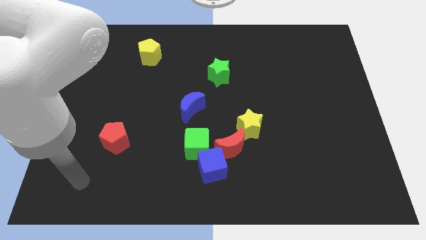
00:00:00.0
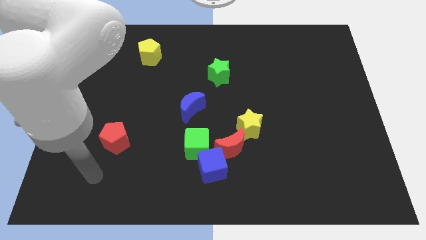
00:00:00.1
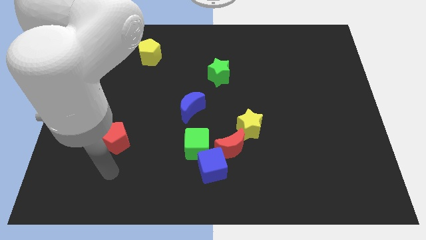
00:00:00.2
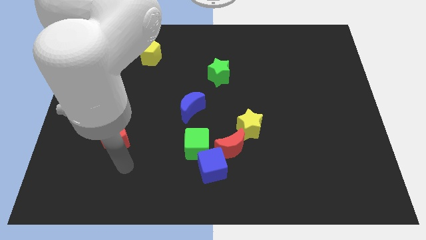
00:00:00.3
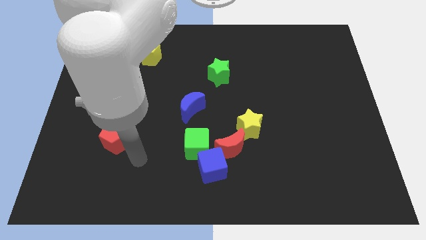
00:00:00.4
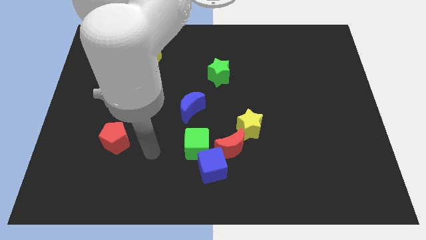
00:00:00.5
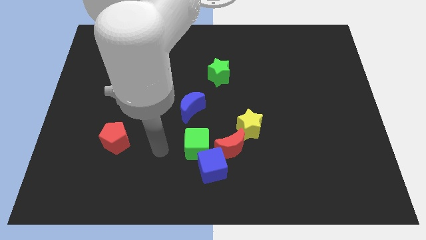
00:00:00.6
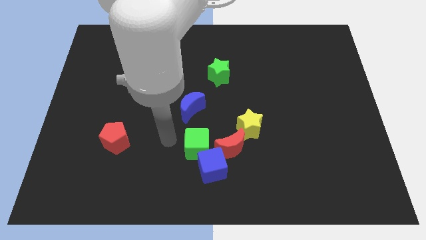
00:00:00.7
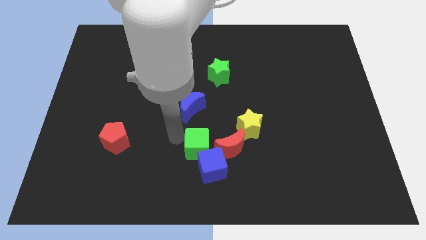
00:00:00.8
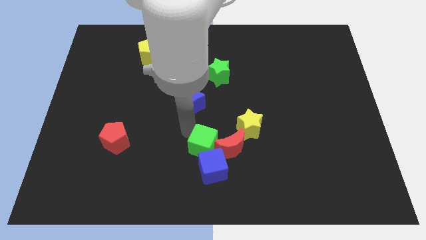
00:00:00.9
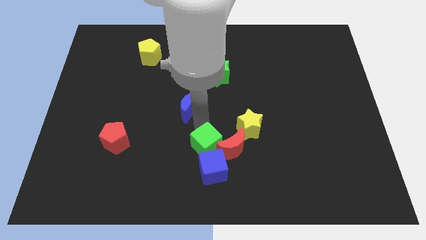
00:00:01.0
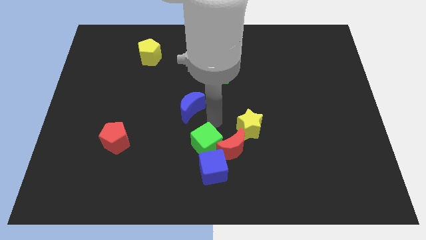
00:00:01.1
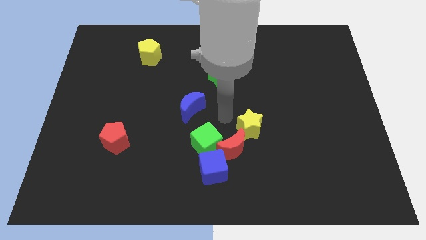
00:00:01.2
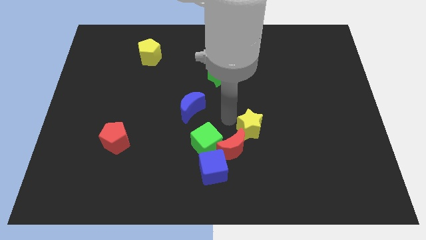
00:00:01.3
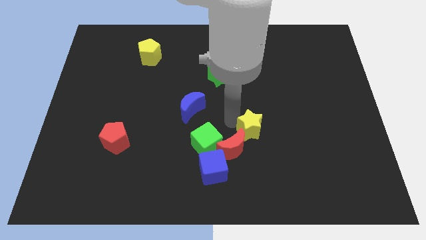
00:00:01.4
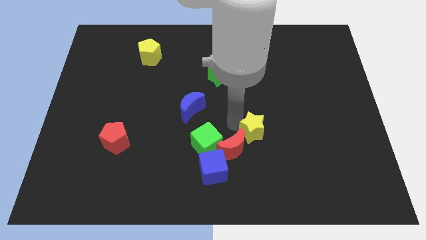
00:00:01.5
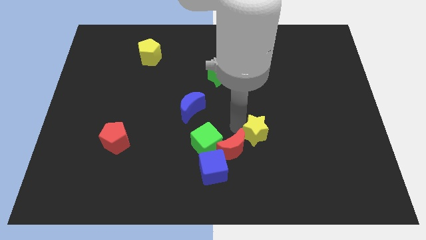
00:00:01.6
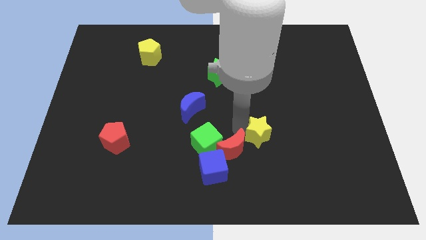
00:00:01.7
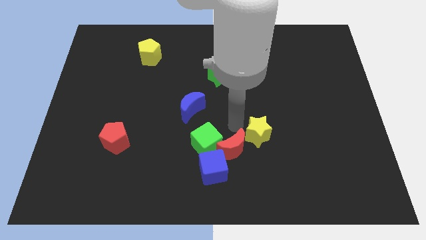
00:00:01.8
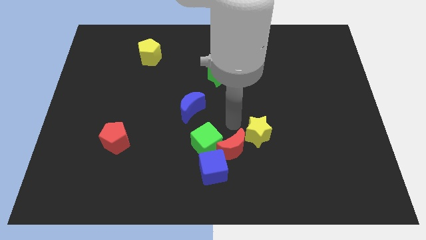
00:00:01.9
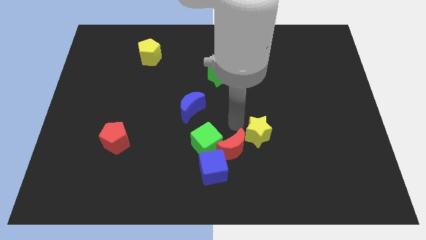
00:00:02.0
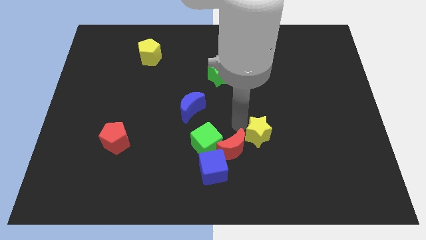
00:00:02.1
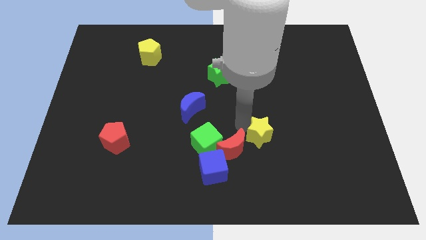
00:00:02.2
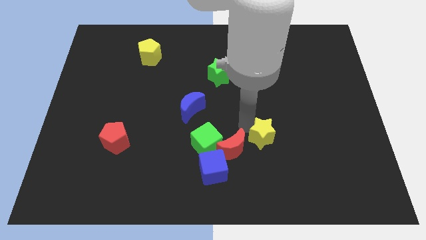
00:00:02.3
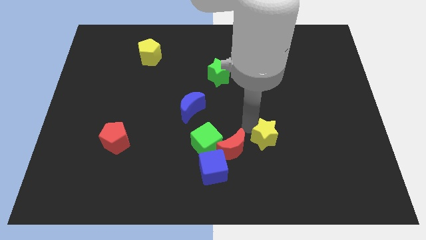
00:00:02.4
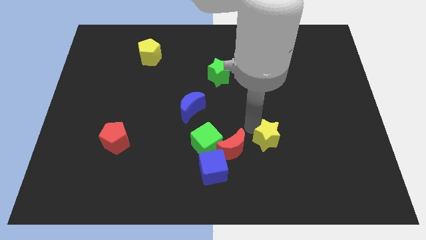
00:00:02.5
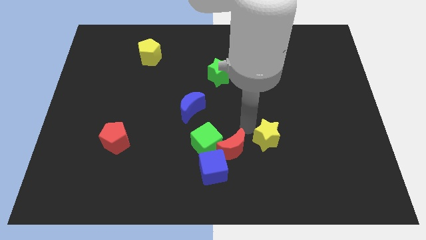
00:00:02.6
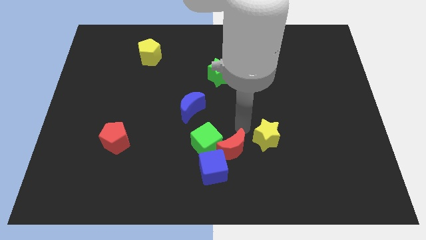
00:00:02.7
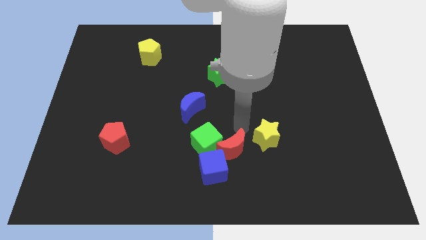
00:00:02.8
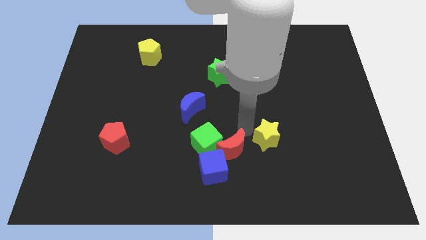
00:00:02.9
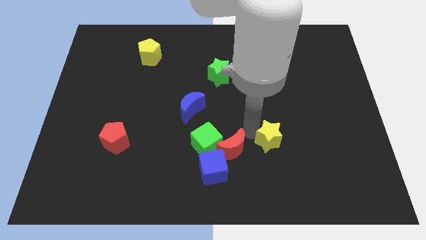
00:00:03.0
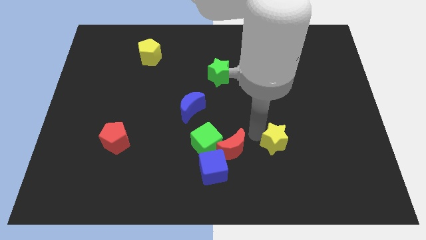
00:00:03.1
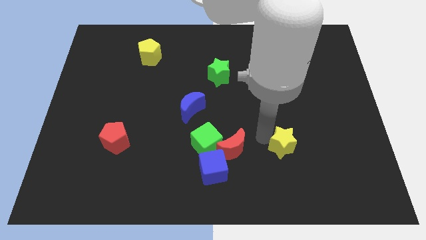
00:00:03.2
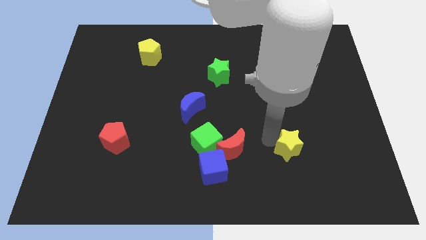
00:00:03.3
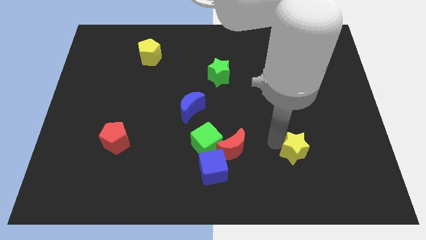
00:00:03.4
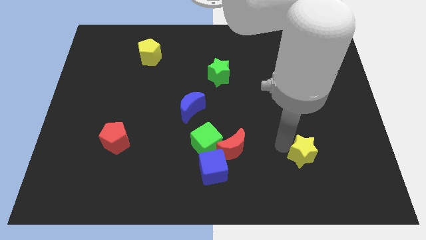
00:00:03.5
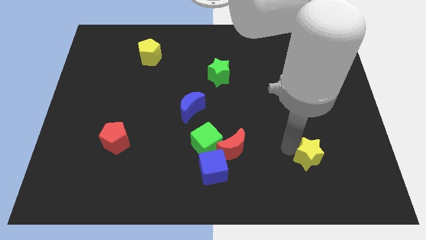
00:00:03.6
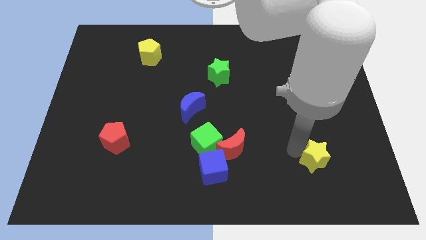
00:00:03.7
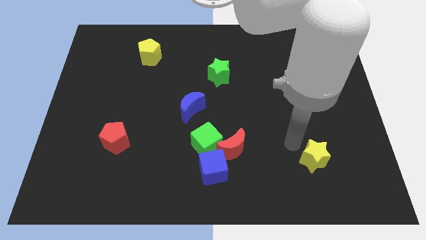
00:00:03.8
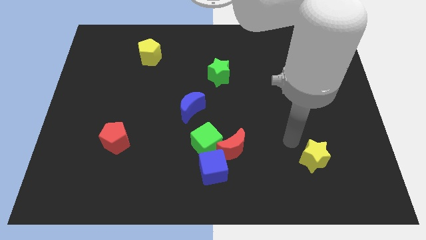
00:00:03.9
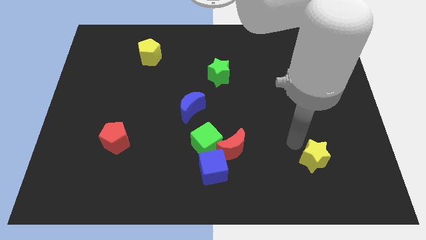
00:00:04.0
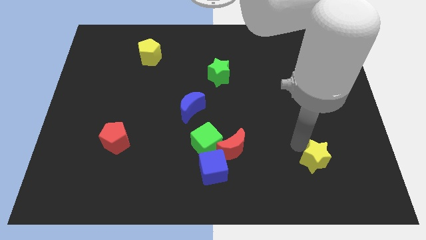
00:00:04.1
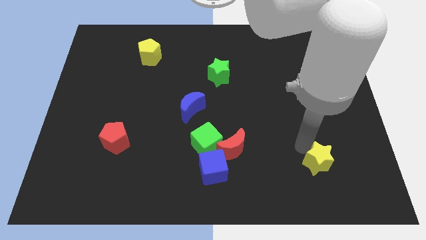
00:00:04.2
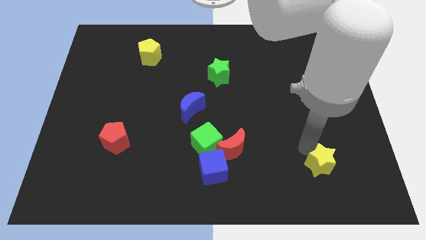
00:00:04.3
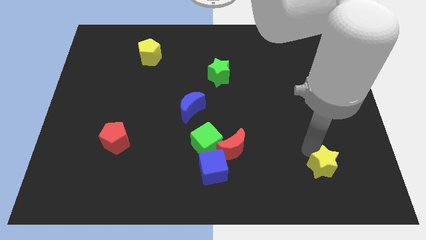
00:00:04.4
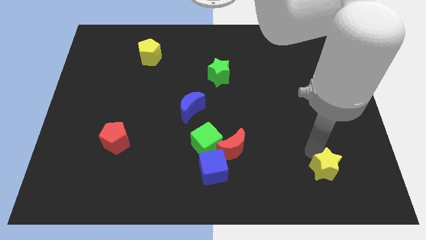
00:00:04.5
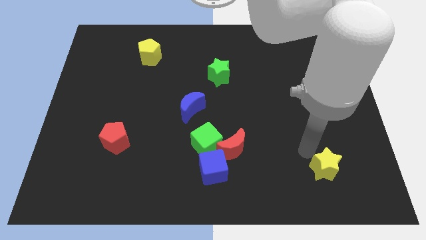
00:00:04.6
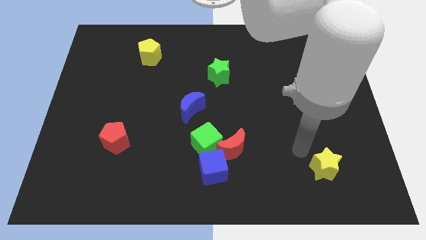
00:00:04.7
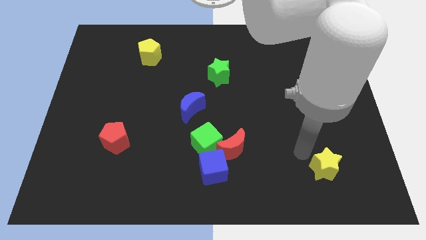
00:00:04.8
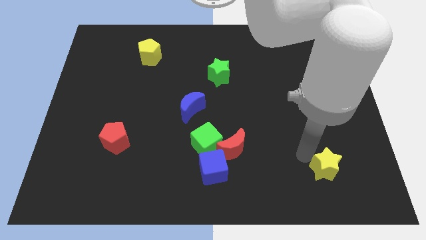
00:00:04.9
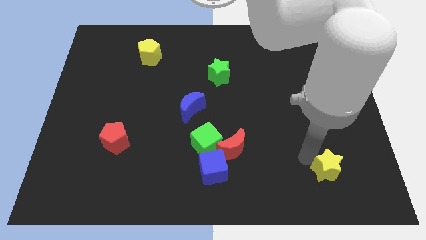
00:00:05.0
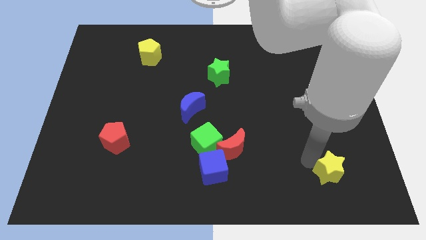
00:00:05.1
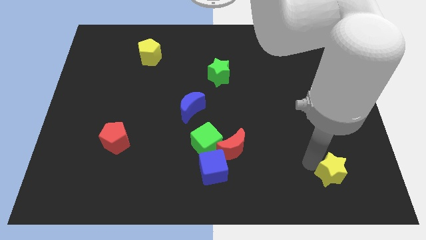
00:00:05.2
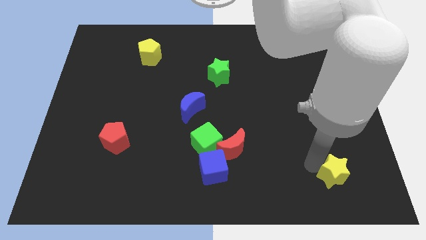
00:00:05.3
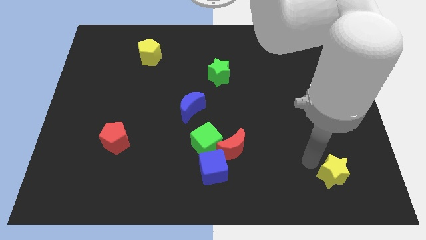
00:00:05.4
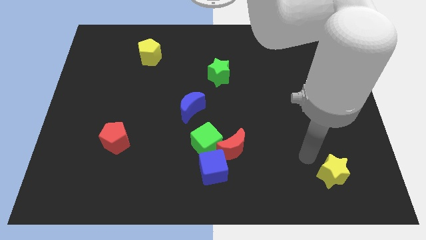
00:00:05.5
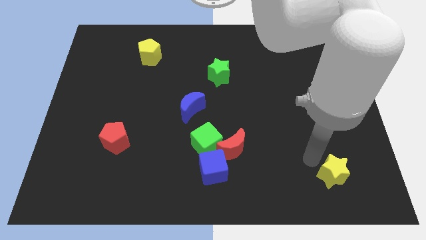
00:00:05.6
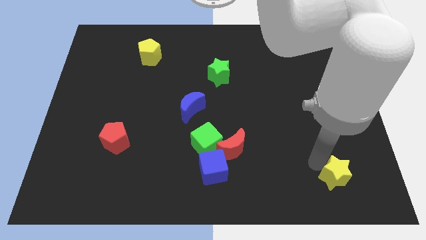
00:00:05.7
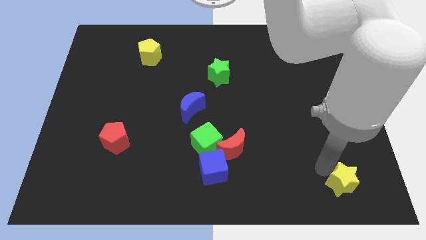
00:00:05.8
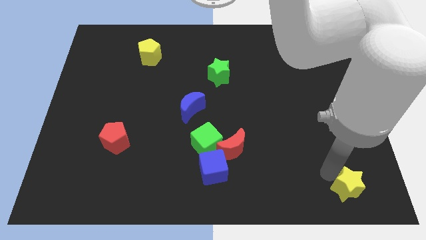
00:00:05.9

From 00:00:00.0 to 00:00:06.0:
slide the yellow star to the bottom right of the board

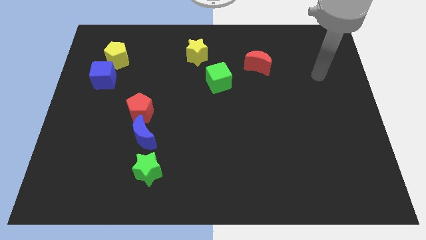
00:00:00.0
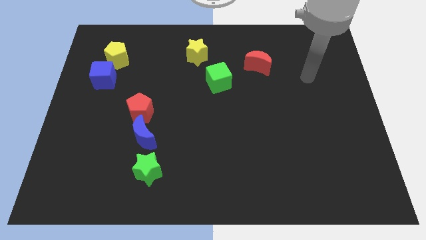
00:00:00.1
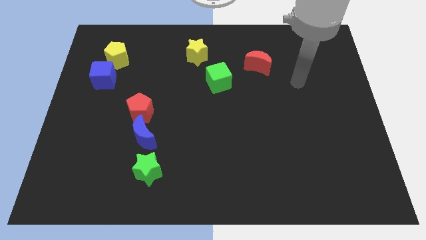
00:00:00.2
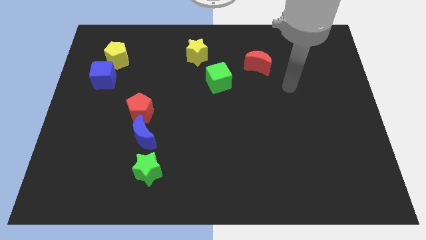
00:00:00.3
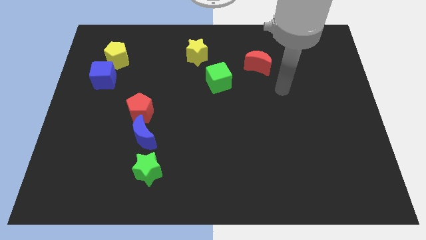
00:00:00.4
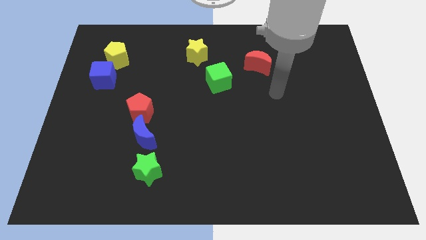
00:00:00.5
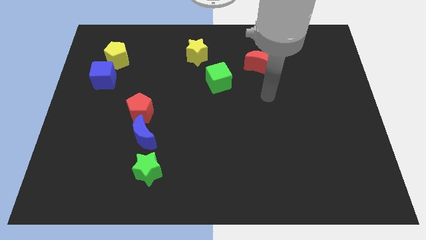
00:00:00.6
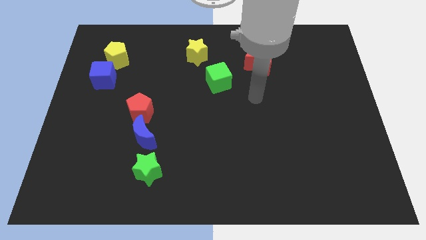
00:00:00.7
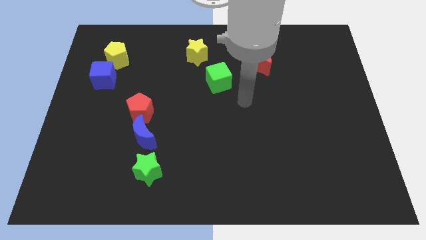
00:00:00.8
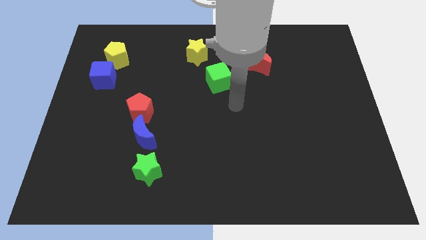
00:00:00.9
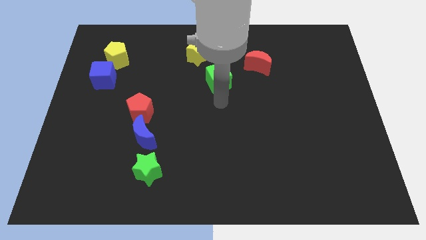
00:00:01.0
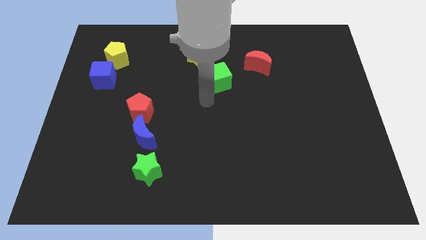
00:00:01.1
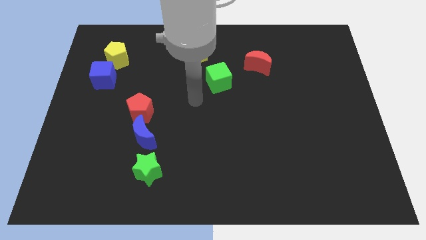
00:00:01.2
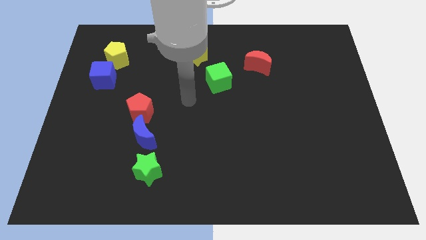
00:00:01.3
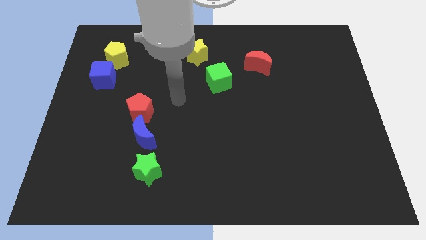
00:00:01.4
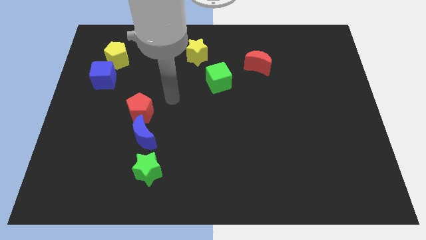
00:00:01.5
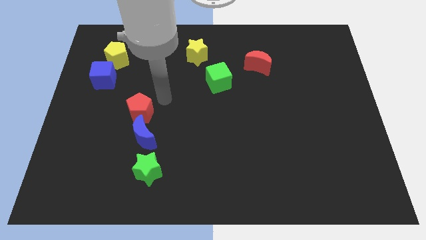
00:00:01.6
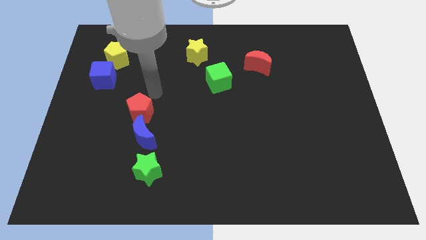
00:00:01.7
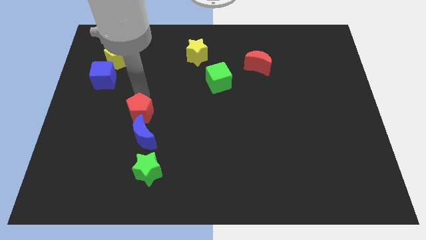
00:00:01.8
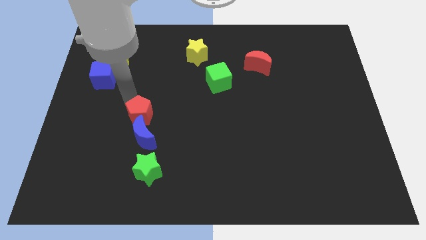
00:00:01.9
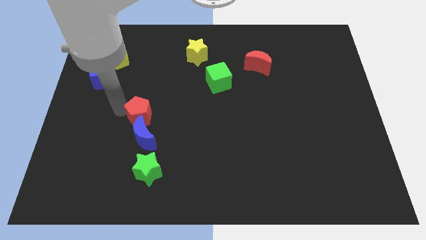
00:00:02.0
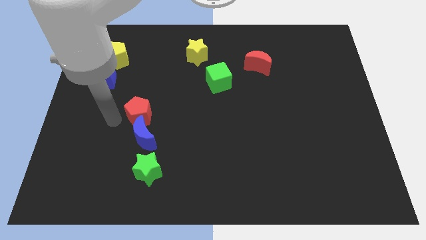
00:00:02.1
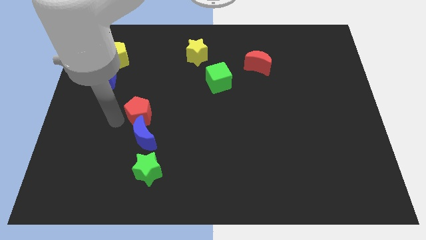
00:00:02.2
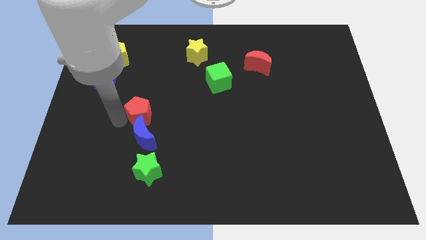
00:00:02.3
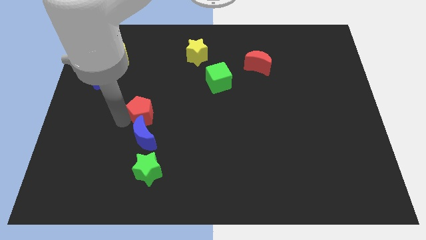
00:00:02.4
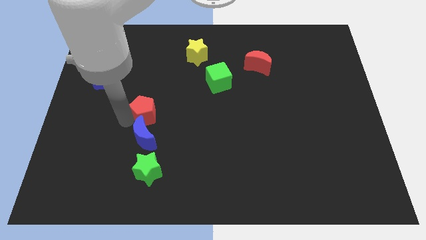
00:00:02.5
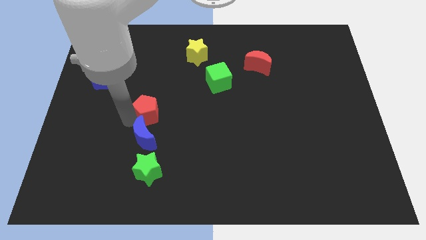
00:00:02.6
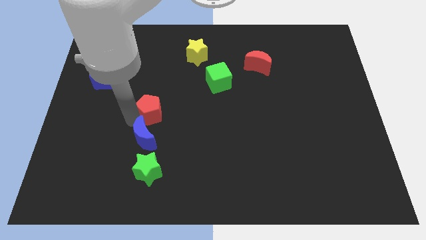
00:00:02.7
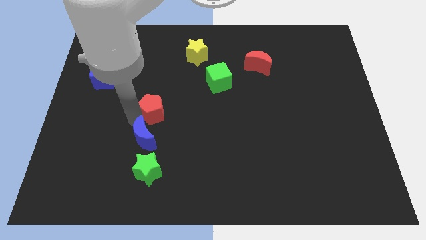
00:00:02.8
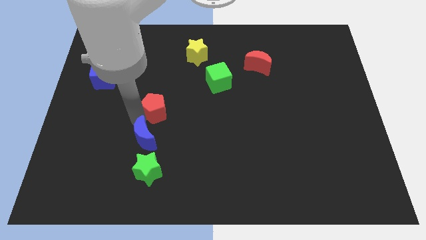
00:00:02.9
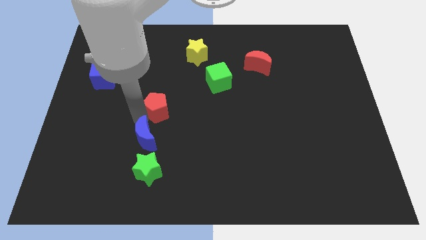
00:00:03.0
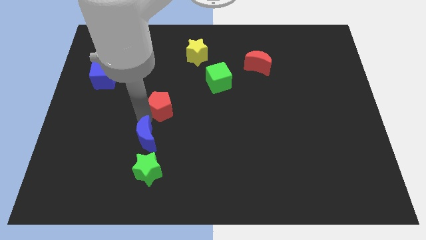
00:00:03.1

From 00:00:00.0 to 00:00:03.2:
put the red pentagon to the middle
